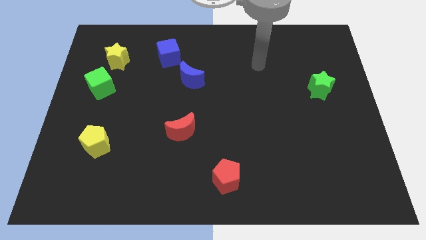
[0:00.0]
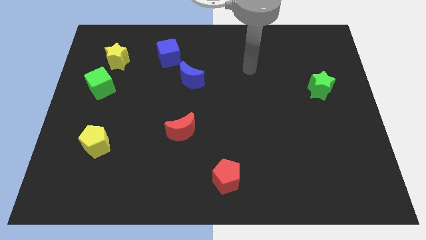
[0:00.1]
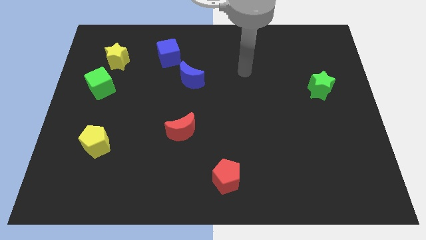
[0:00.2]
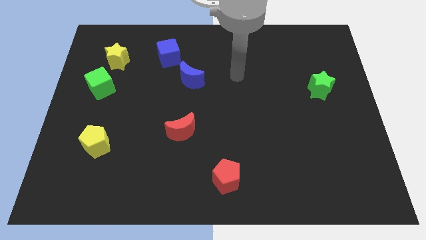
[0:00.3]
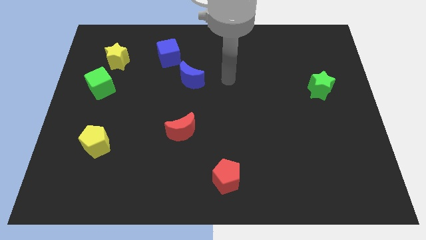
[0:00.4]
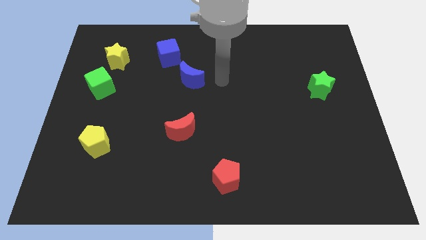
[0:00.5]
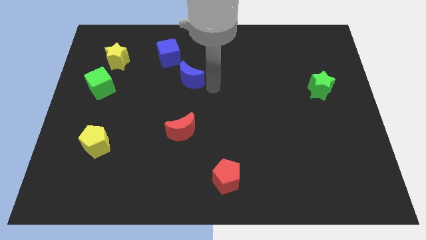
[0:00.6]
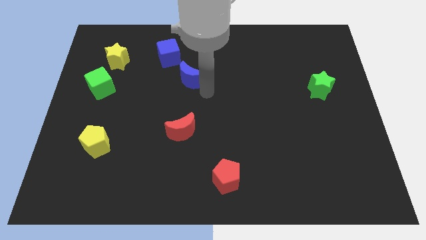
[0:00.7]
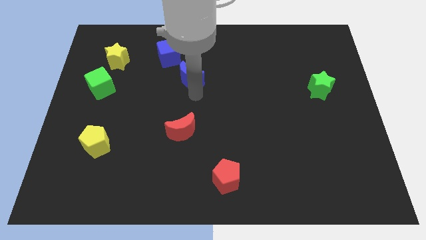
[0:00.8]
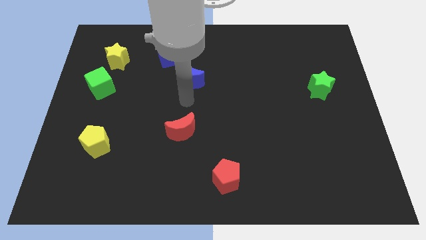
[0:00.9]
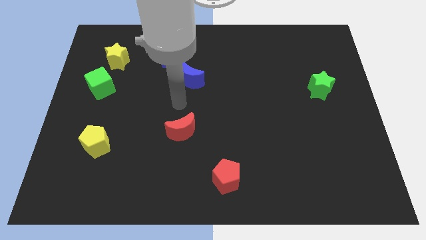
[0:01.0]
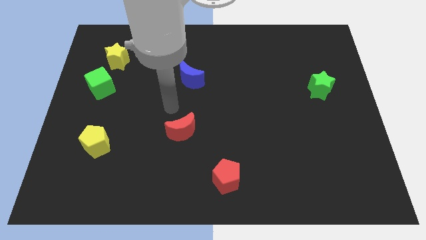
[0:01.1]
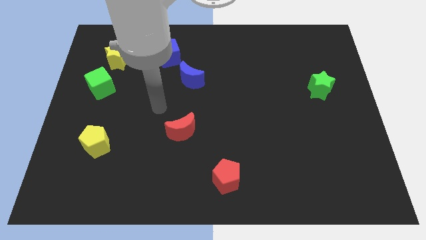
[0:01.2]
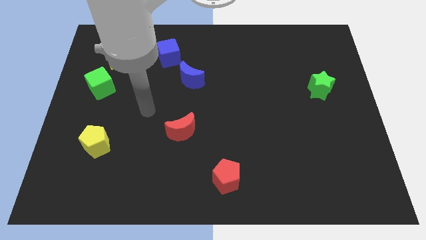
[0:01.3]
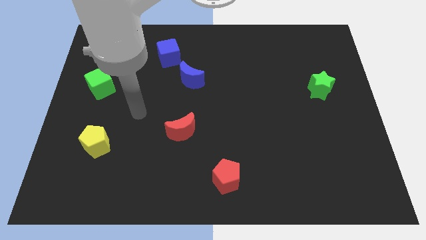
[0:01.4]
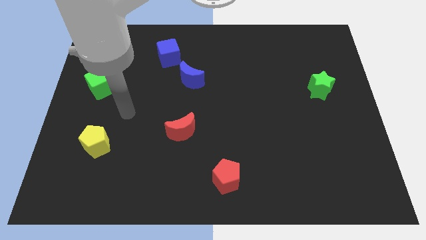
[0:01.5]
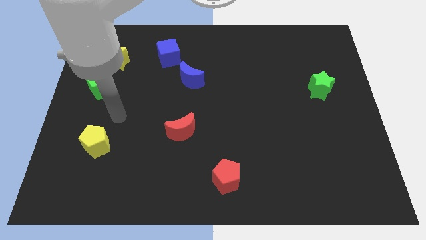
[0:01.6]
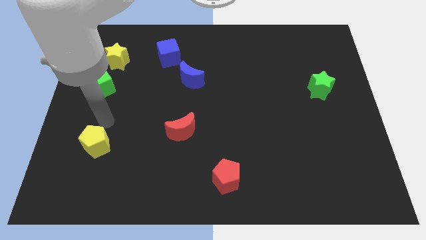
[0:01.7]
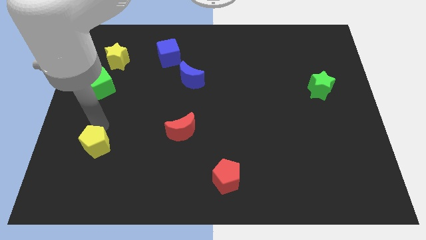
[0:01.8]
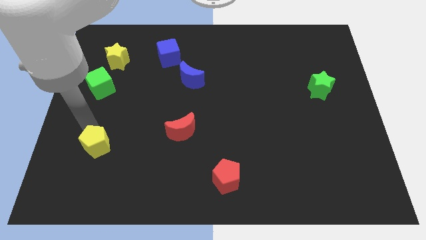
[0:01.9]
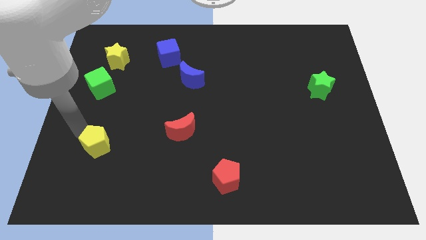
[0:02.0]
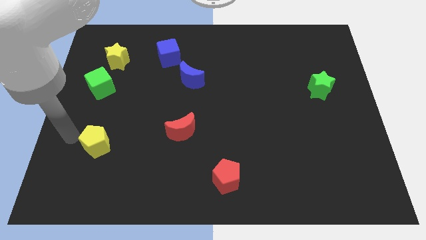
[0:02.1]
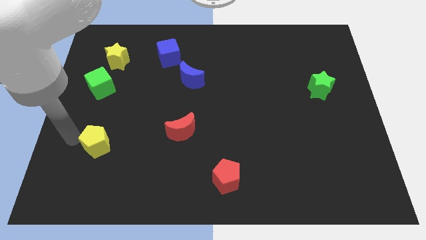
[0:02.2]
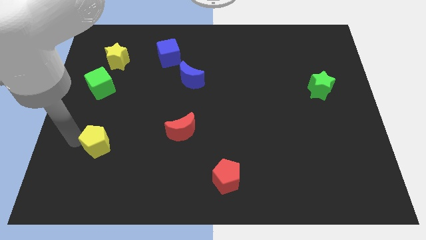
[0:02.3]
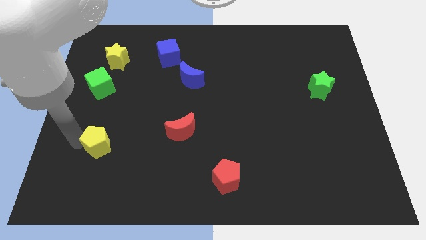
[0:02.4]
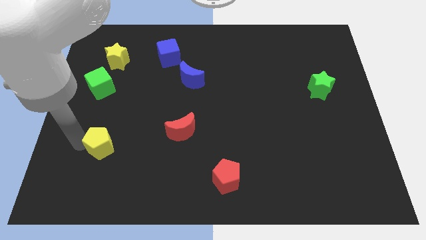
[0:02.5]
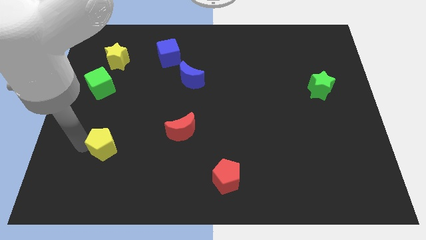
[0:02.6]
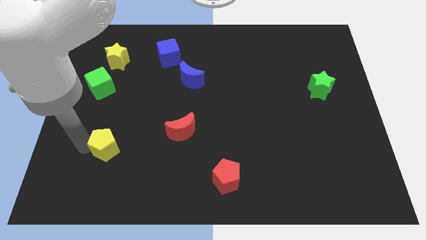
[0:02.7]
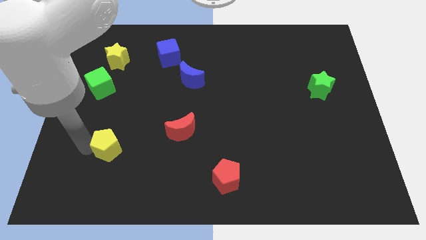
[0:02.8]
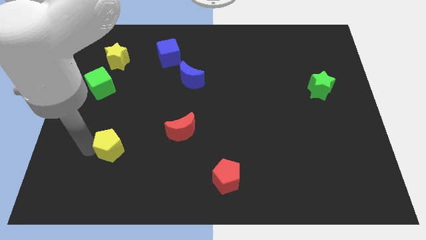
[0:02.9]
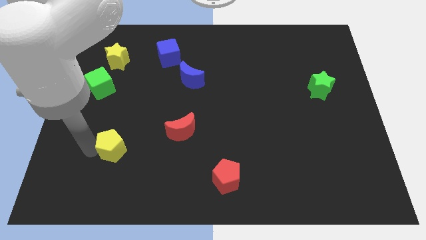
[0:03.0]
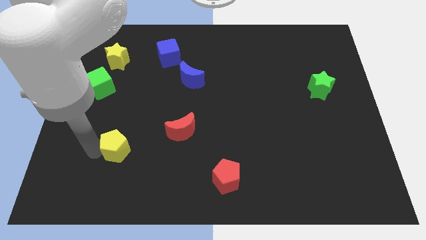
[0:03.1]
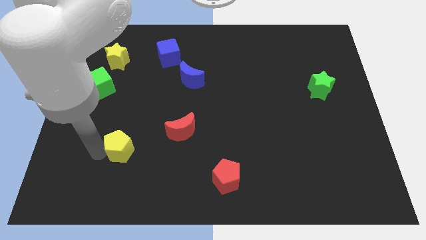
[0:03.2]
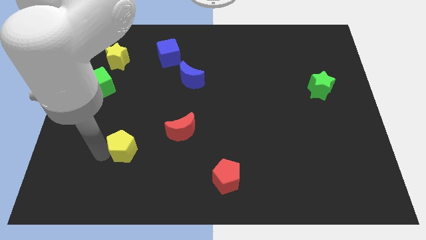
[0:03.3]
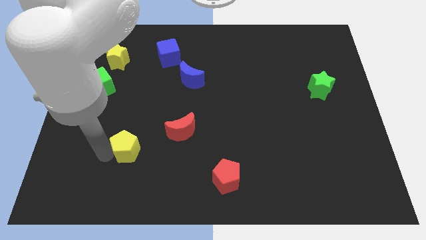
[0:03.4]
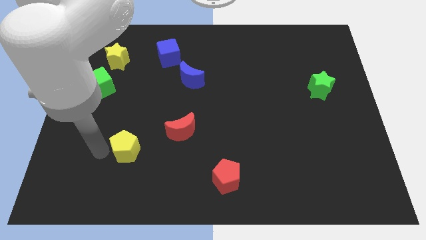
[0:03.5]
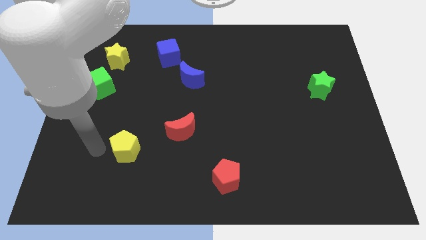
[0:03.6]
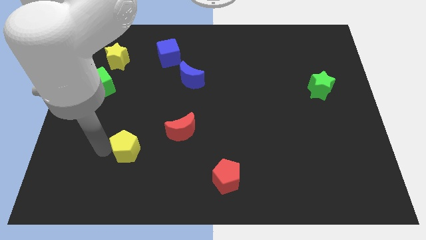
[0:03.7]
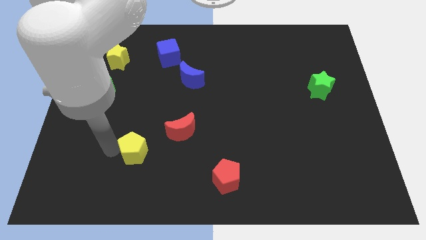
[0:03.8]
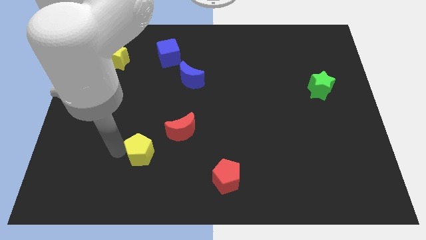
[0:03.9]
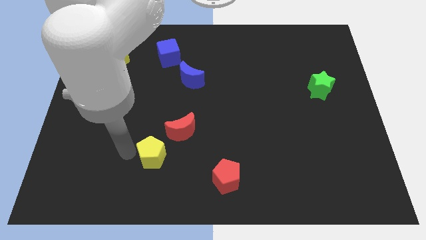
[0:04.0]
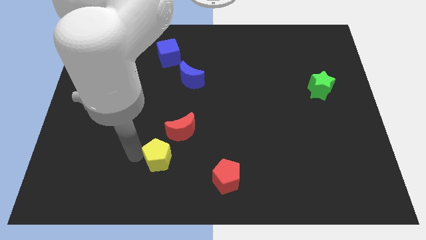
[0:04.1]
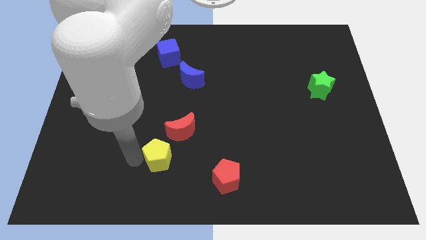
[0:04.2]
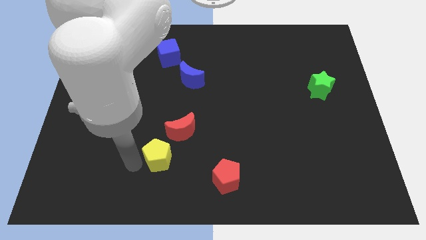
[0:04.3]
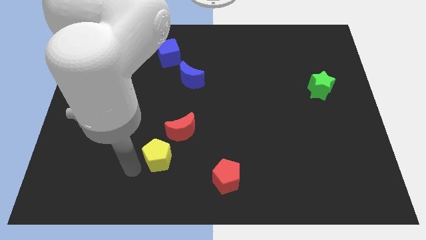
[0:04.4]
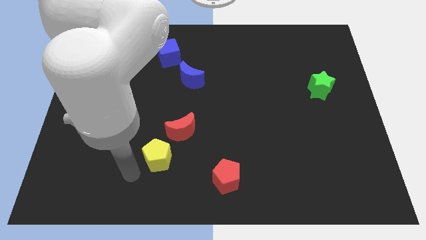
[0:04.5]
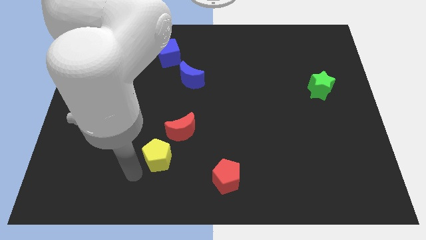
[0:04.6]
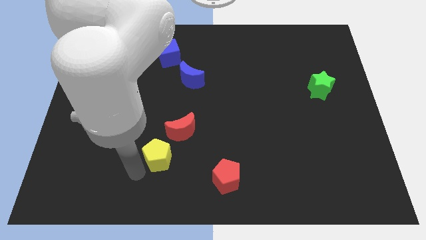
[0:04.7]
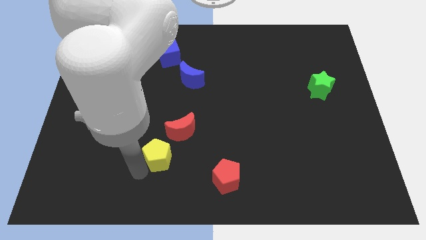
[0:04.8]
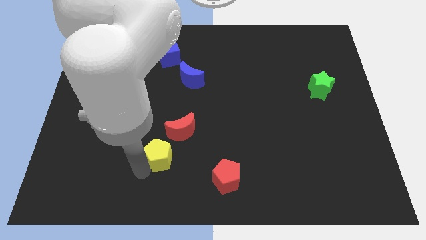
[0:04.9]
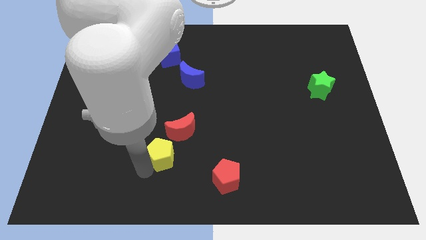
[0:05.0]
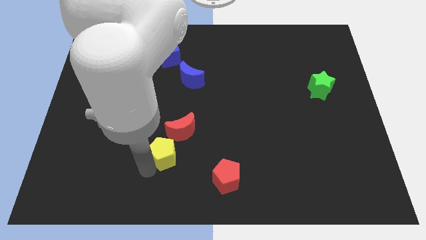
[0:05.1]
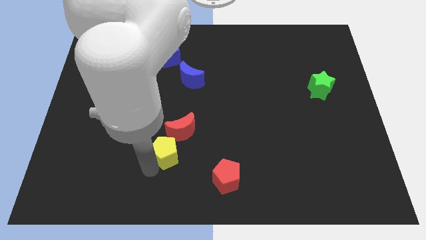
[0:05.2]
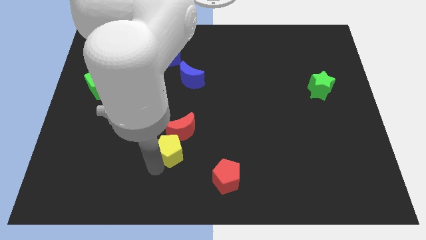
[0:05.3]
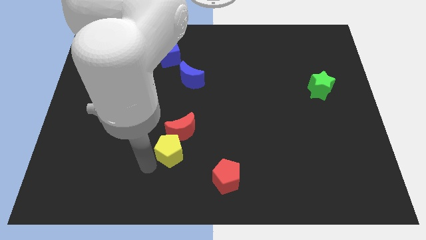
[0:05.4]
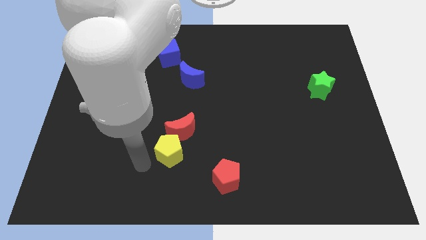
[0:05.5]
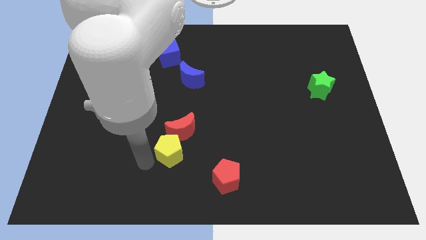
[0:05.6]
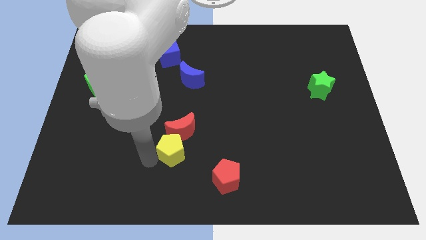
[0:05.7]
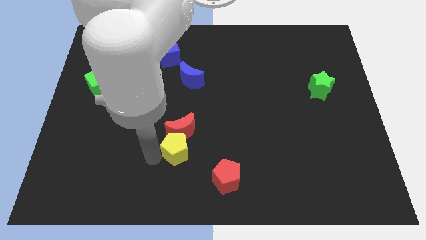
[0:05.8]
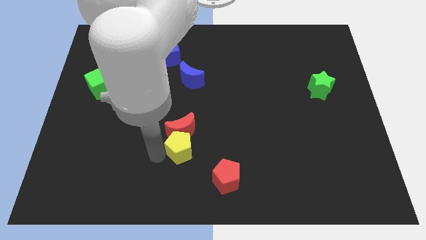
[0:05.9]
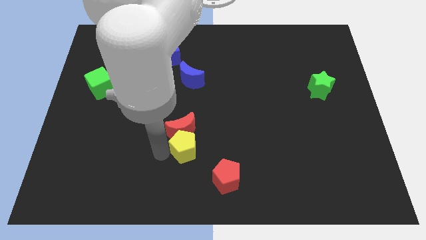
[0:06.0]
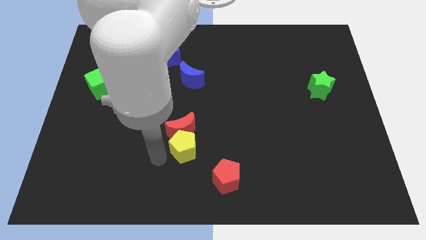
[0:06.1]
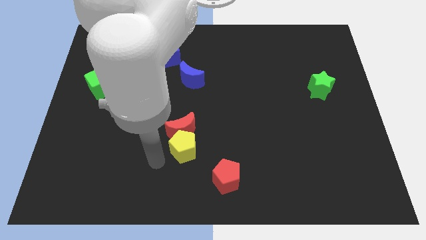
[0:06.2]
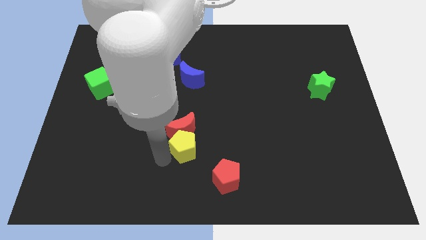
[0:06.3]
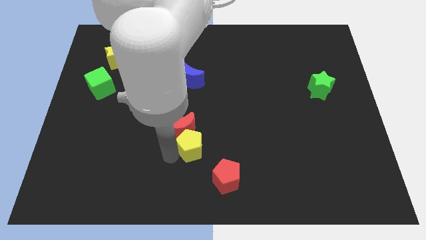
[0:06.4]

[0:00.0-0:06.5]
move the yellow pentagon to the right

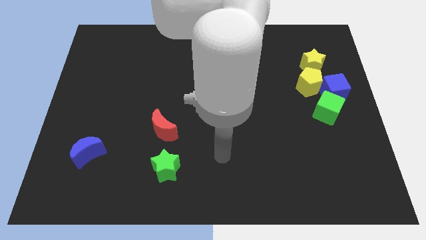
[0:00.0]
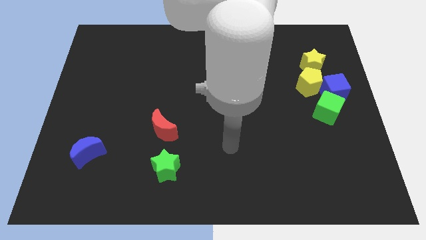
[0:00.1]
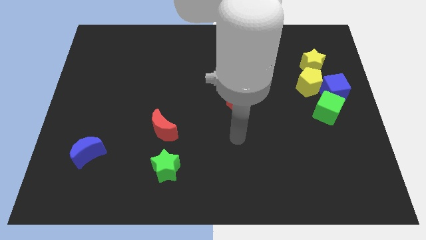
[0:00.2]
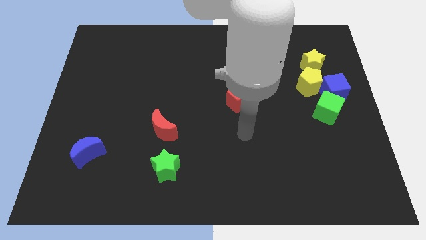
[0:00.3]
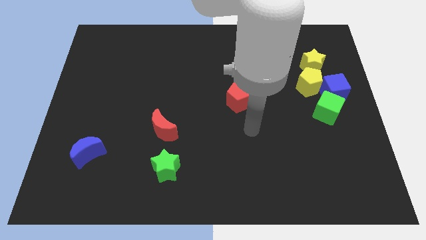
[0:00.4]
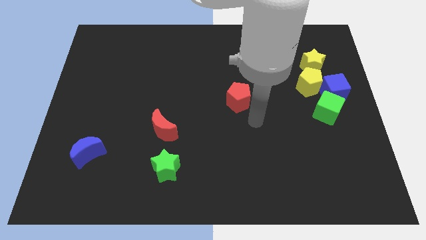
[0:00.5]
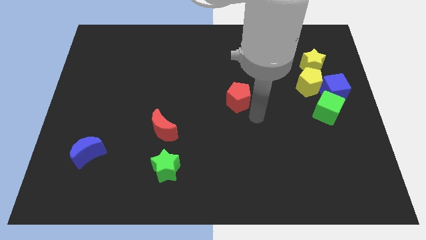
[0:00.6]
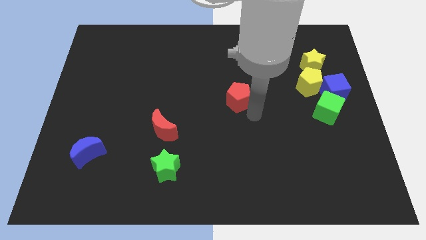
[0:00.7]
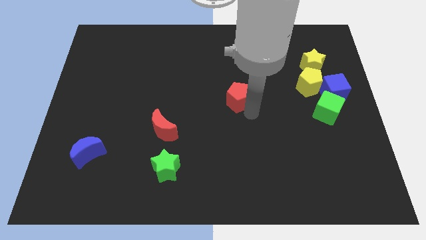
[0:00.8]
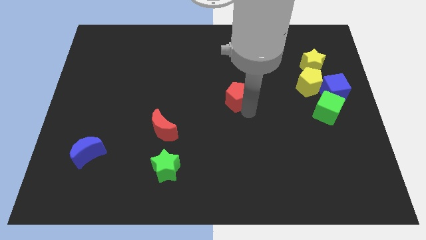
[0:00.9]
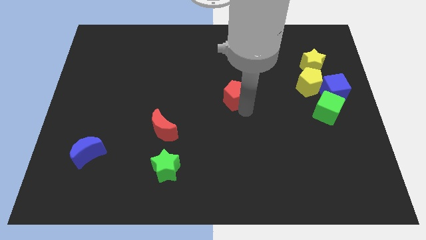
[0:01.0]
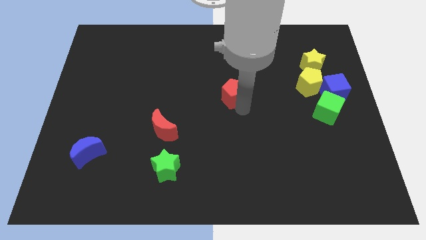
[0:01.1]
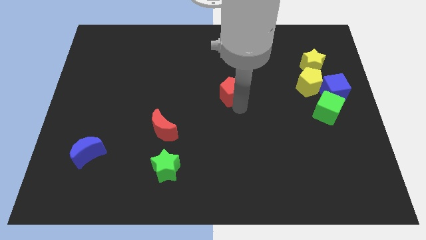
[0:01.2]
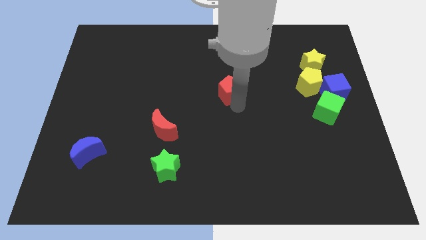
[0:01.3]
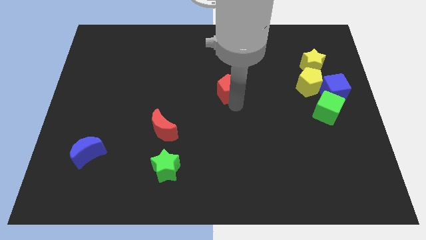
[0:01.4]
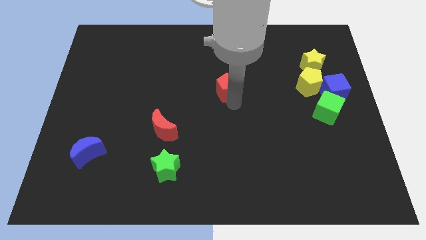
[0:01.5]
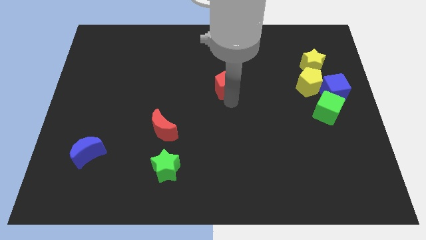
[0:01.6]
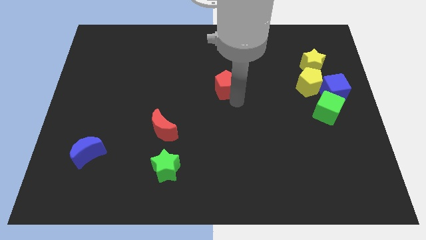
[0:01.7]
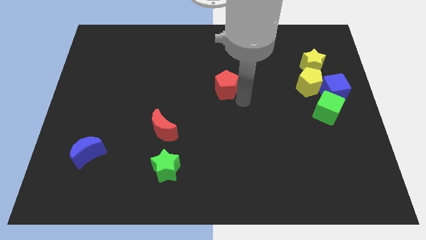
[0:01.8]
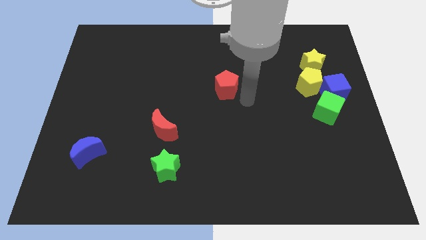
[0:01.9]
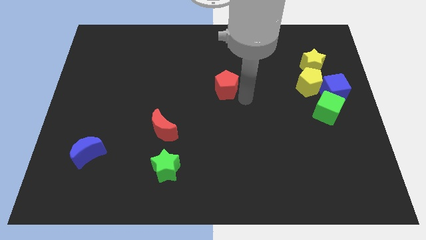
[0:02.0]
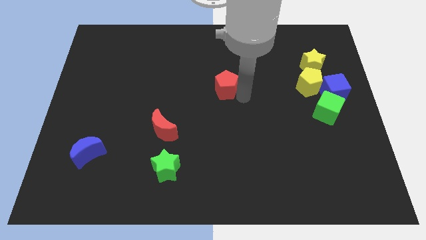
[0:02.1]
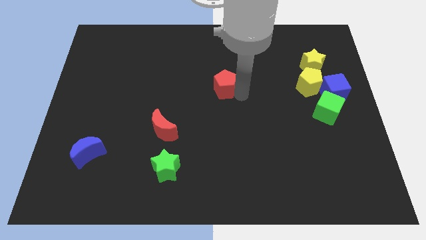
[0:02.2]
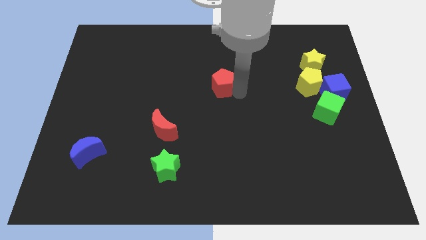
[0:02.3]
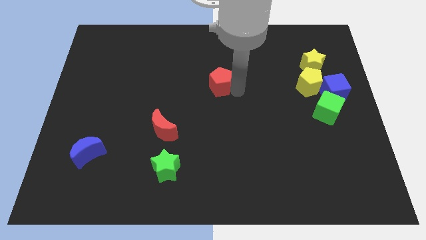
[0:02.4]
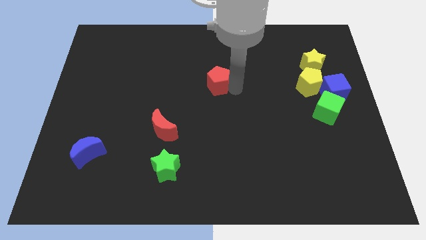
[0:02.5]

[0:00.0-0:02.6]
slightly move the red pentagon up and to the left
